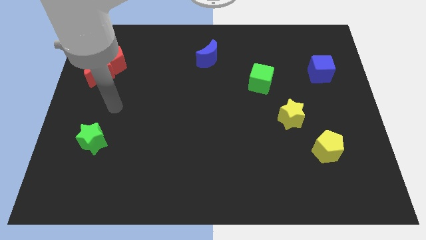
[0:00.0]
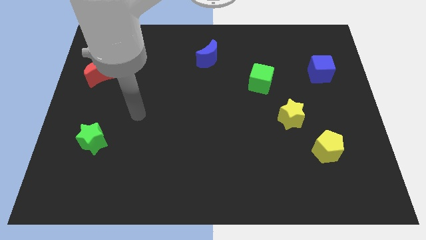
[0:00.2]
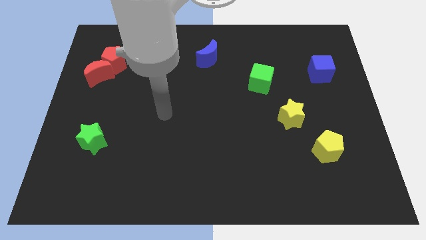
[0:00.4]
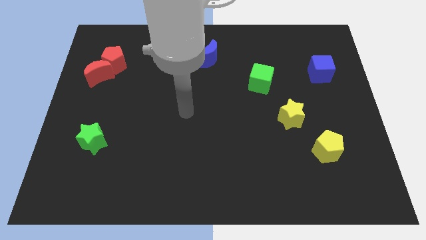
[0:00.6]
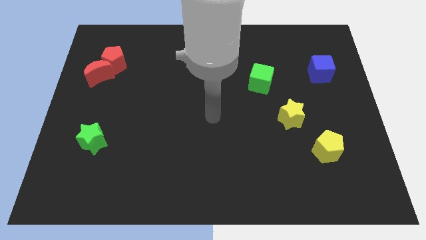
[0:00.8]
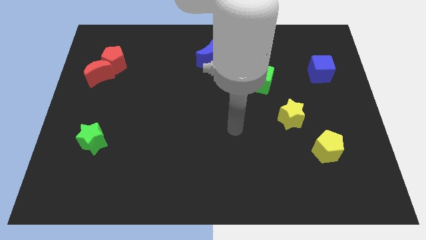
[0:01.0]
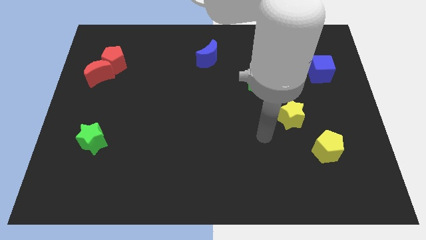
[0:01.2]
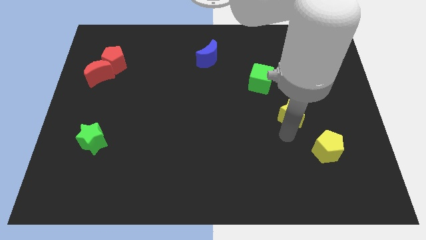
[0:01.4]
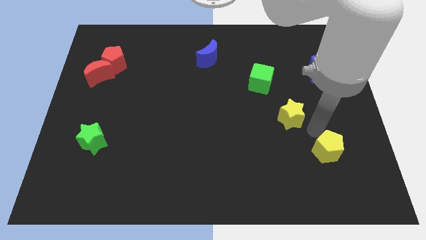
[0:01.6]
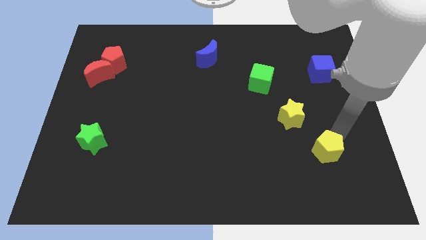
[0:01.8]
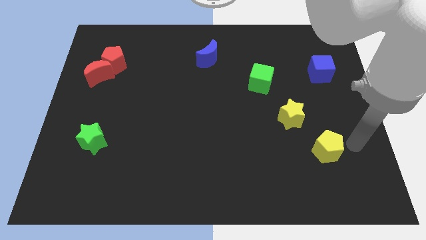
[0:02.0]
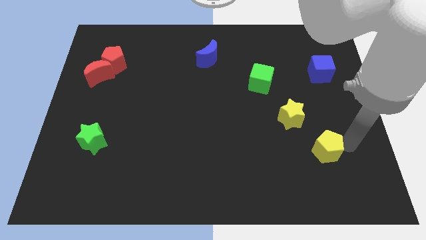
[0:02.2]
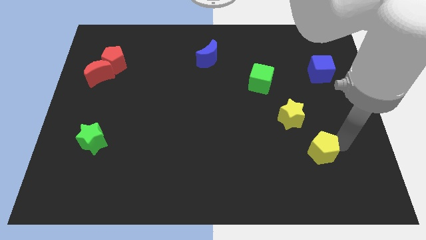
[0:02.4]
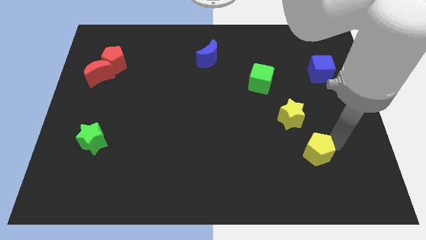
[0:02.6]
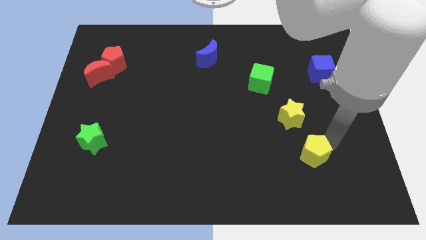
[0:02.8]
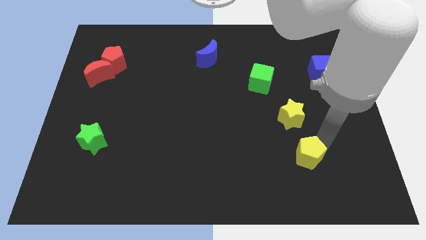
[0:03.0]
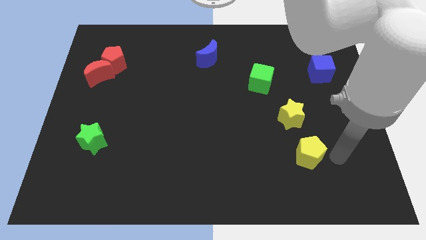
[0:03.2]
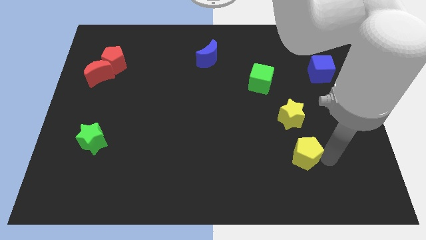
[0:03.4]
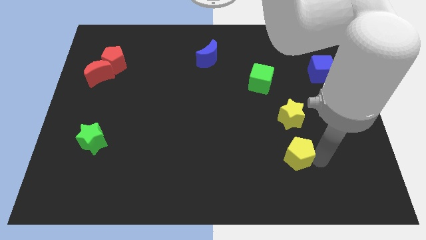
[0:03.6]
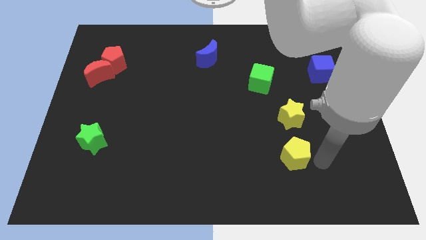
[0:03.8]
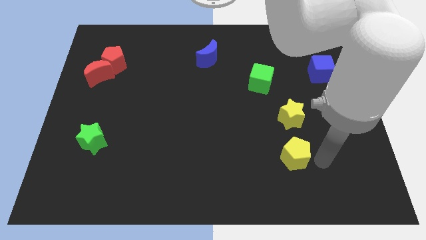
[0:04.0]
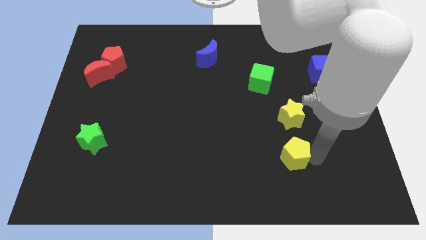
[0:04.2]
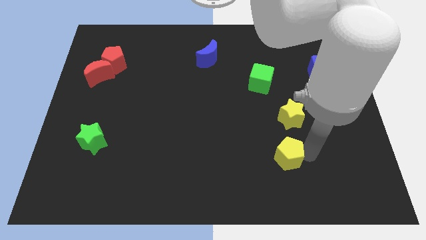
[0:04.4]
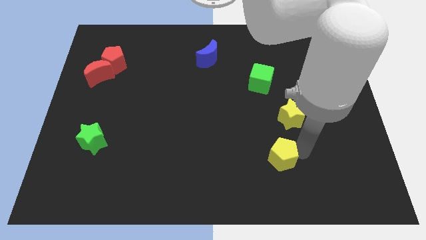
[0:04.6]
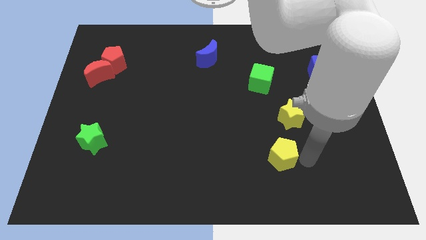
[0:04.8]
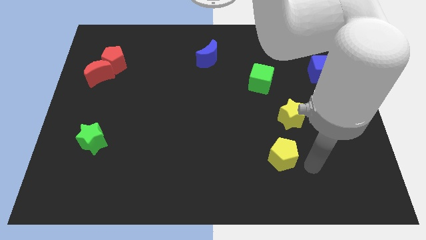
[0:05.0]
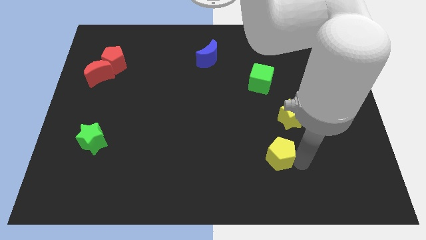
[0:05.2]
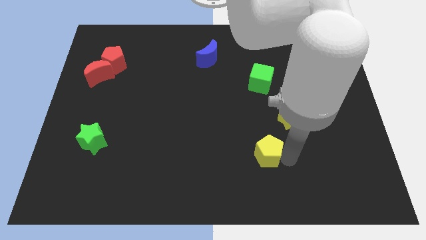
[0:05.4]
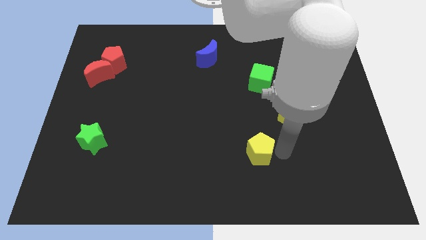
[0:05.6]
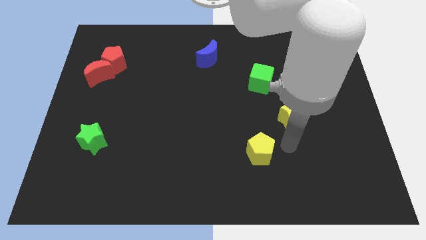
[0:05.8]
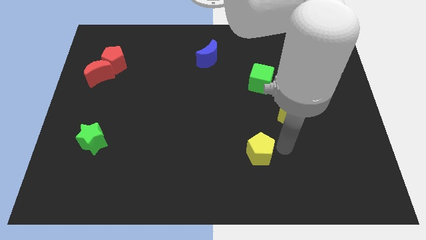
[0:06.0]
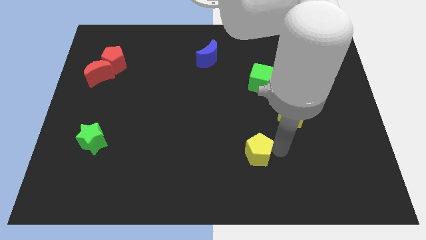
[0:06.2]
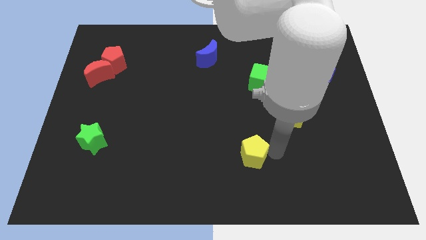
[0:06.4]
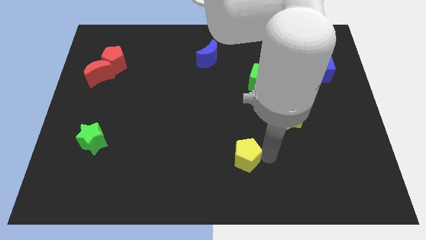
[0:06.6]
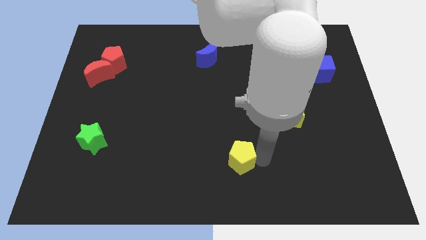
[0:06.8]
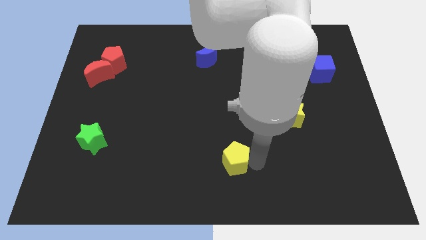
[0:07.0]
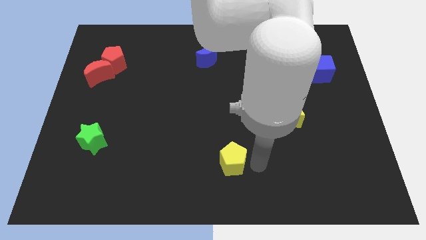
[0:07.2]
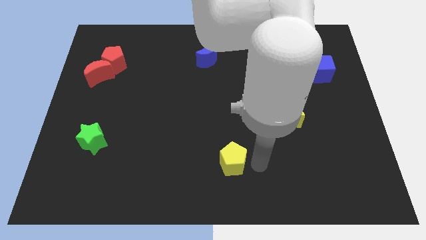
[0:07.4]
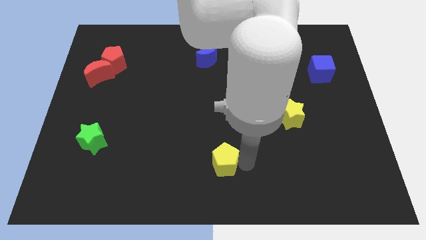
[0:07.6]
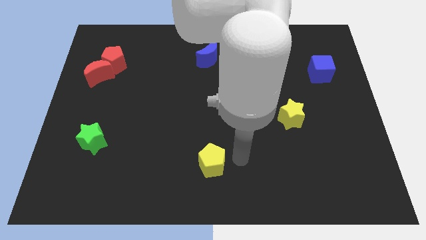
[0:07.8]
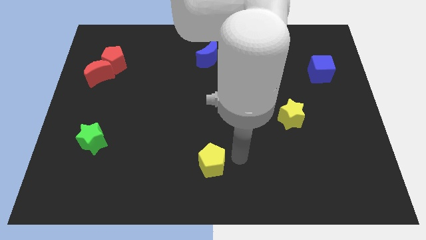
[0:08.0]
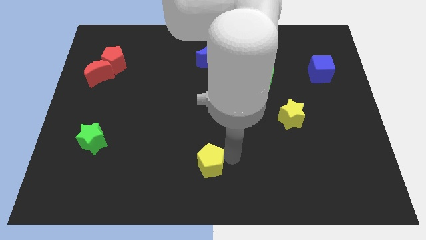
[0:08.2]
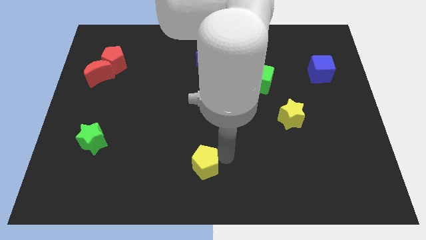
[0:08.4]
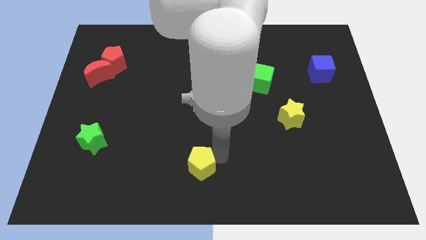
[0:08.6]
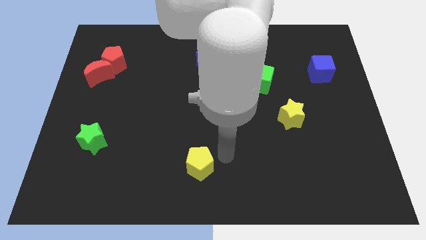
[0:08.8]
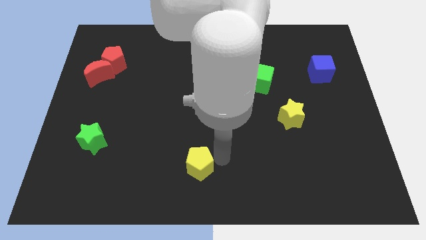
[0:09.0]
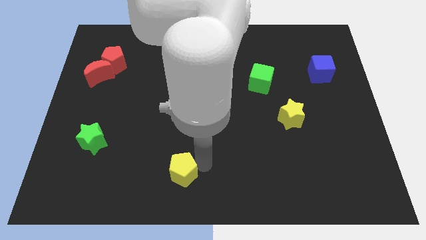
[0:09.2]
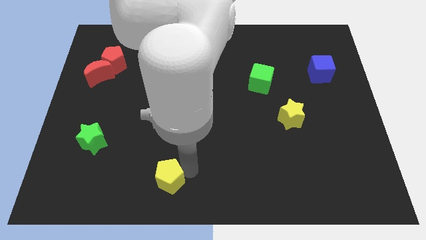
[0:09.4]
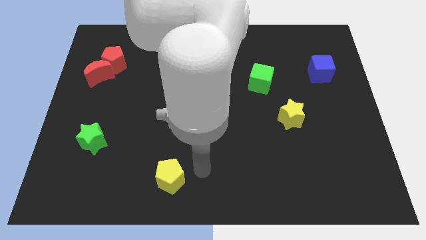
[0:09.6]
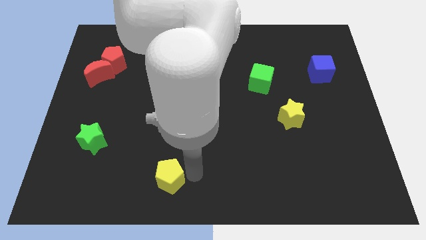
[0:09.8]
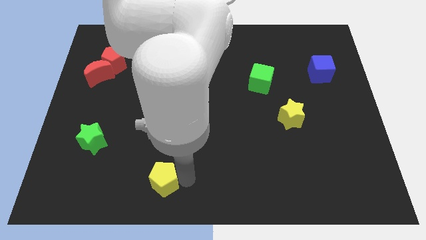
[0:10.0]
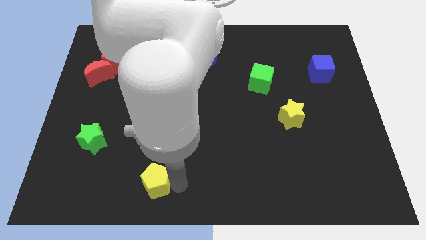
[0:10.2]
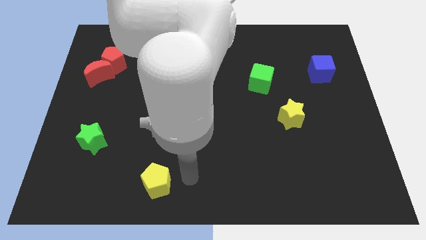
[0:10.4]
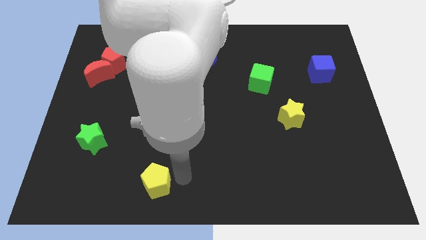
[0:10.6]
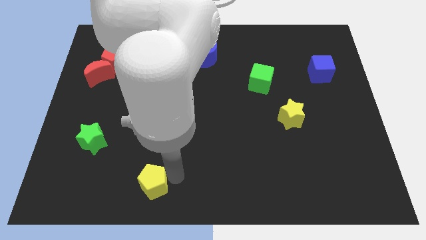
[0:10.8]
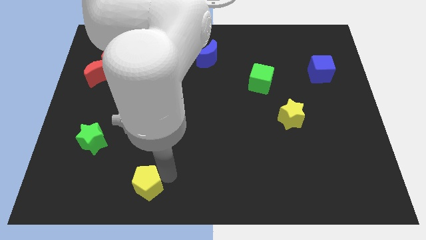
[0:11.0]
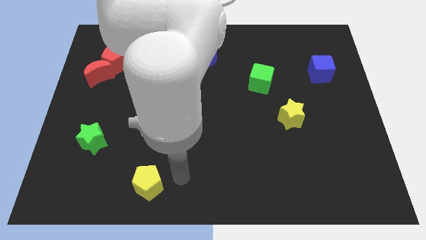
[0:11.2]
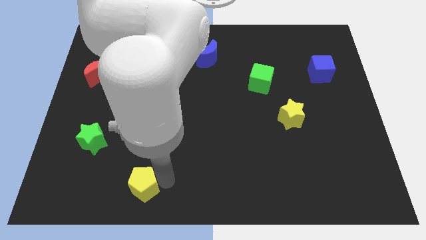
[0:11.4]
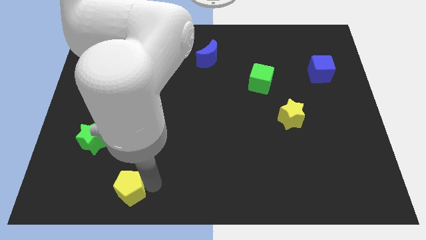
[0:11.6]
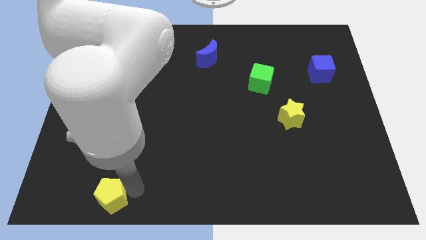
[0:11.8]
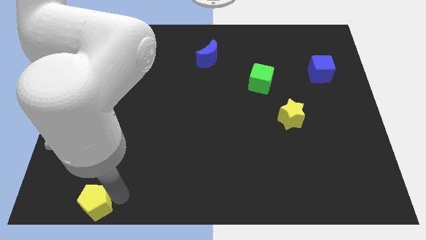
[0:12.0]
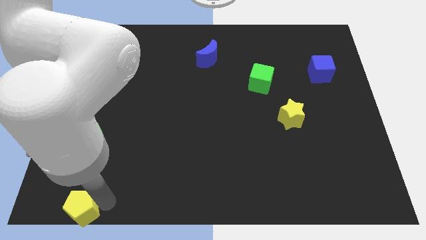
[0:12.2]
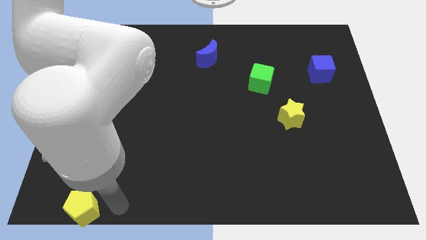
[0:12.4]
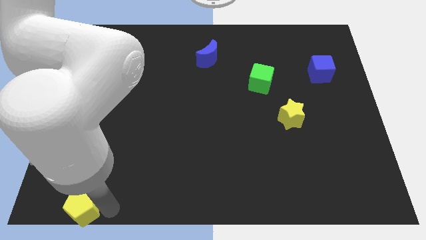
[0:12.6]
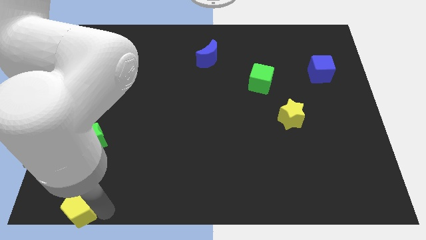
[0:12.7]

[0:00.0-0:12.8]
move the yellow pentagon to the bottom left
